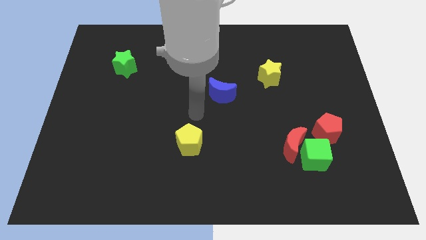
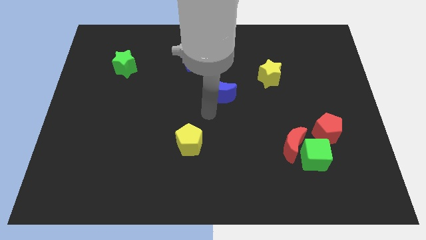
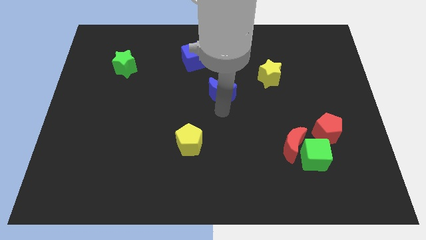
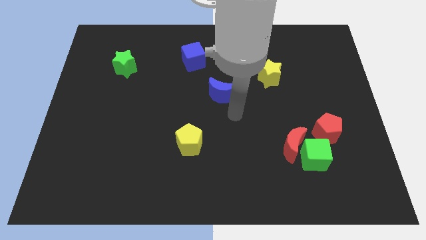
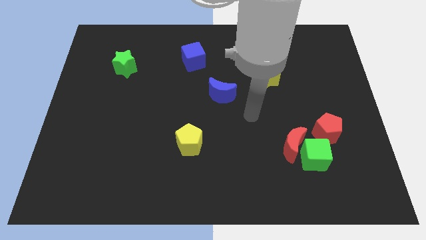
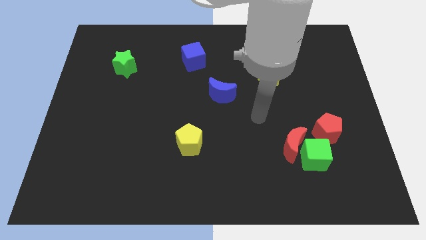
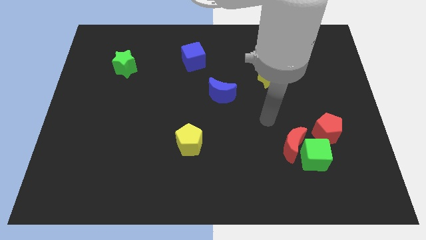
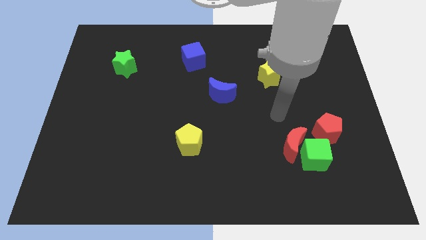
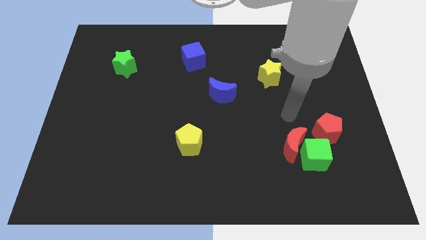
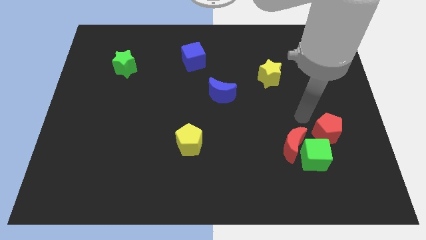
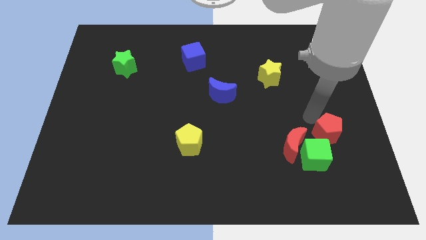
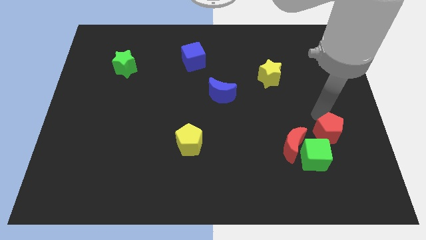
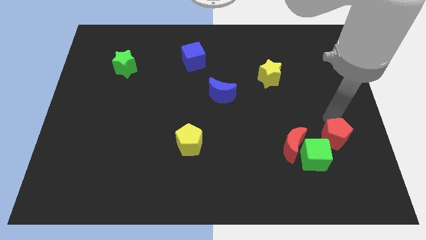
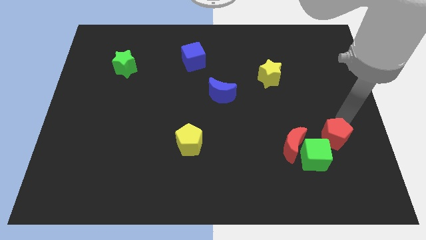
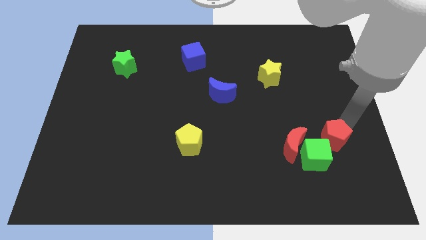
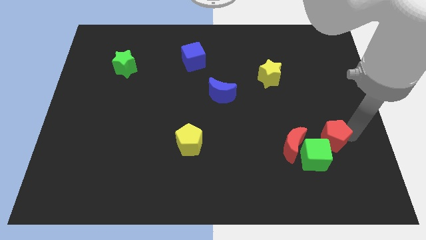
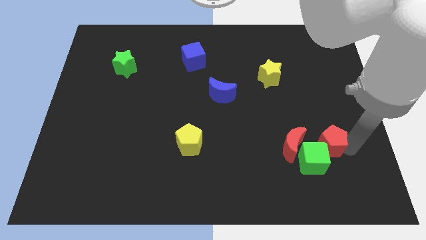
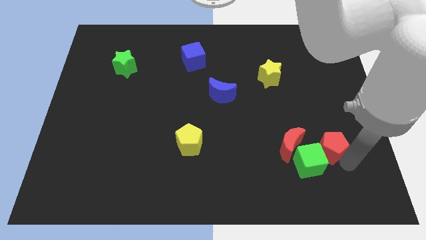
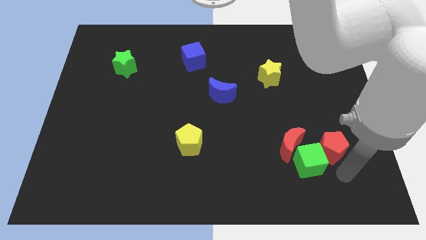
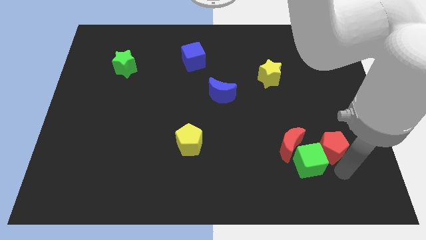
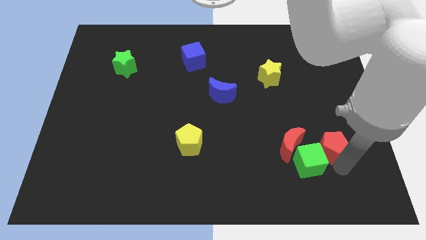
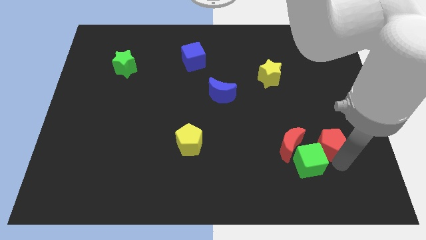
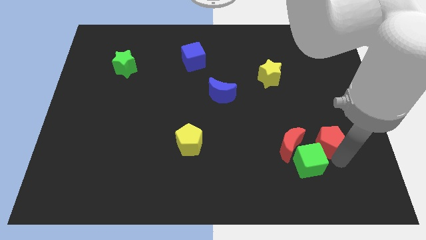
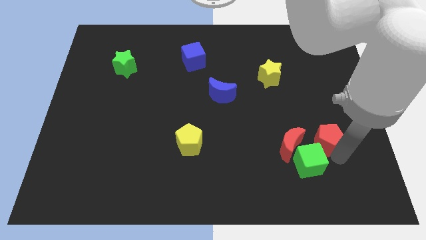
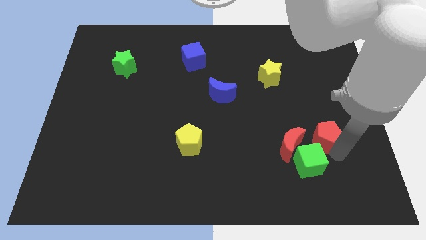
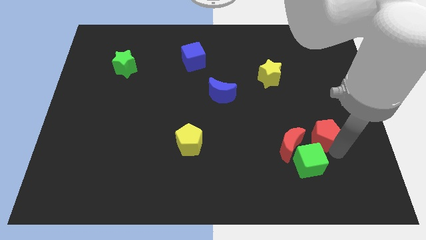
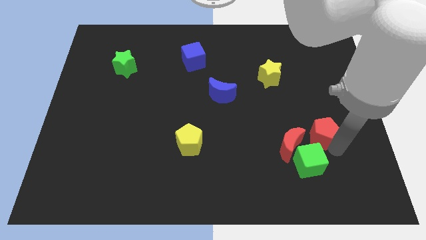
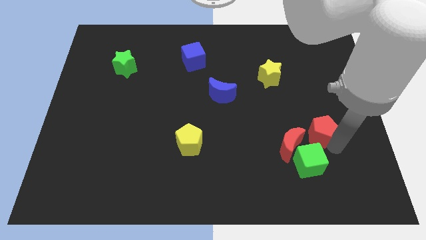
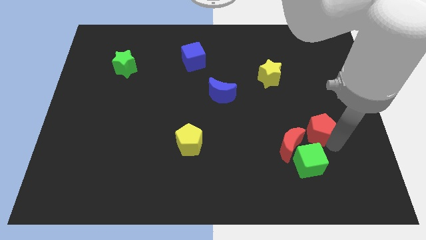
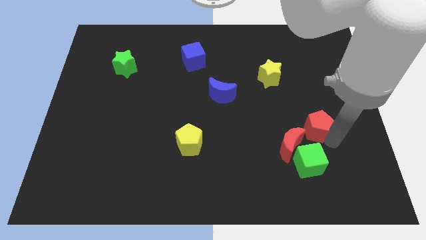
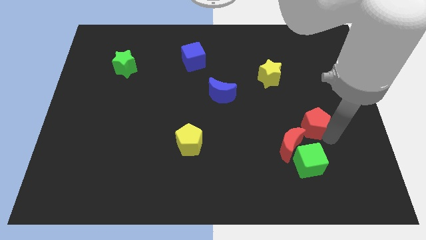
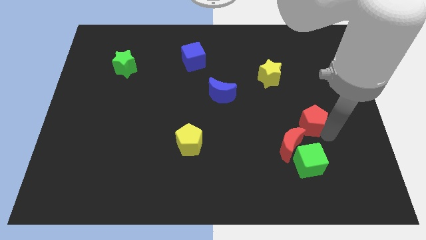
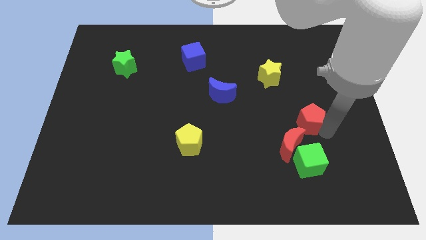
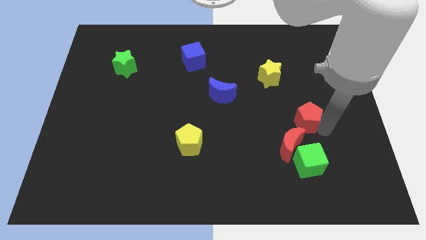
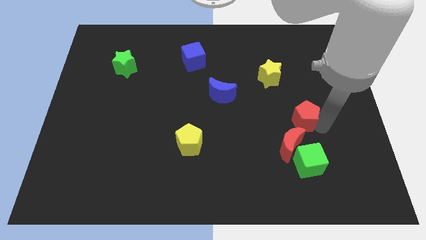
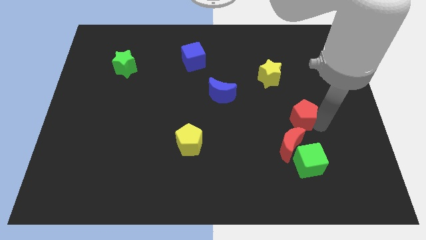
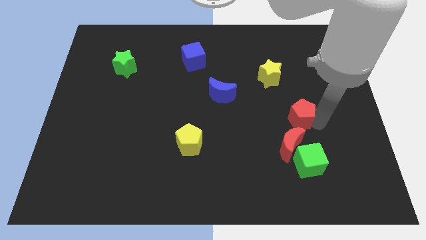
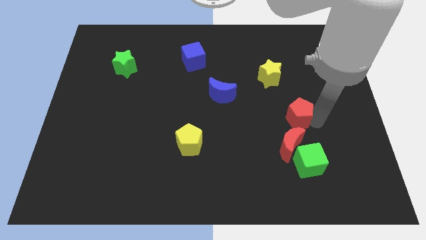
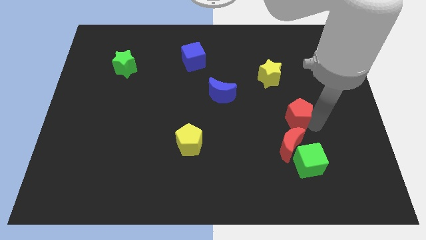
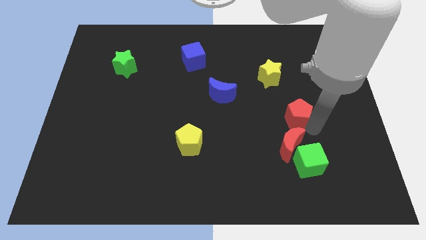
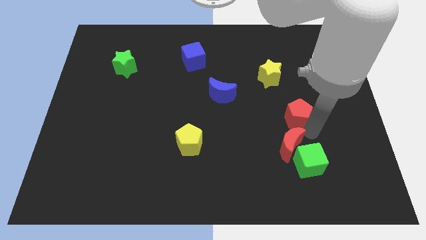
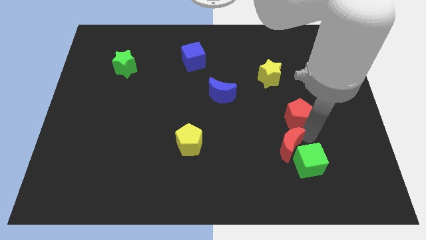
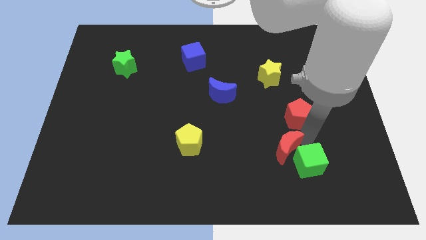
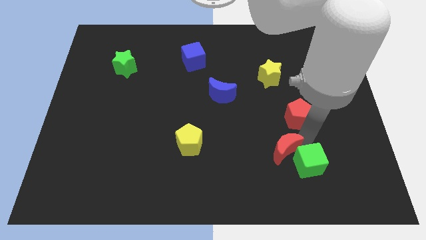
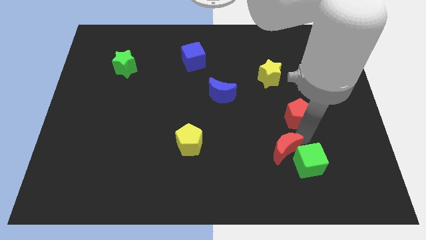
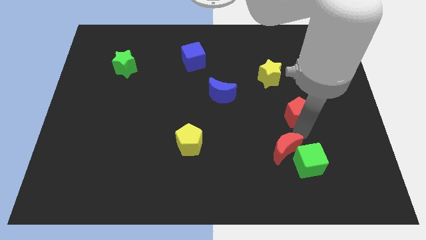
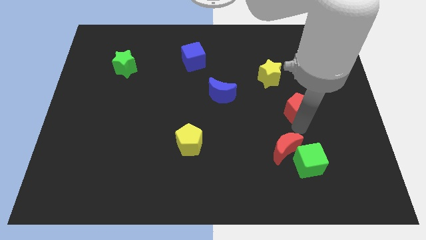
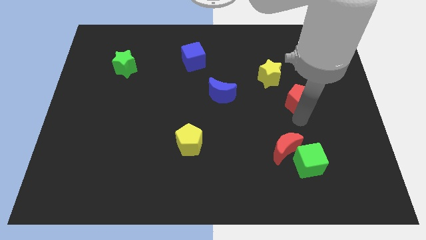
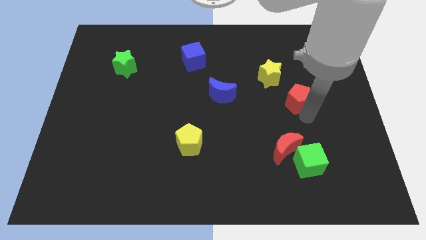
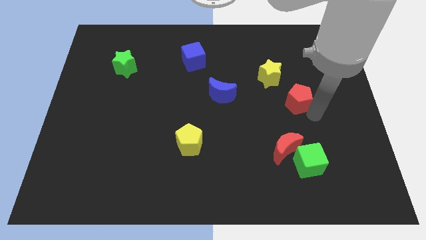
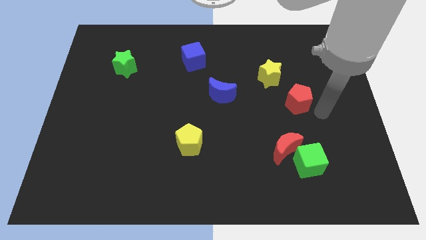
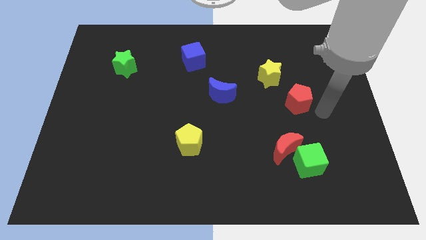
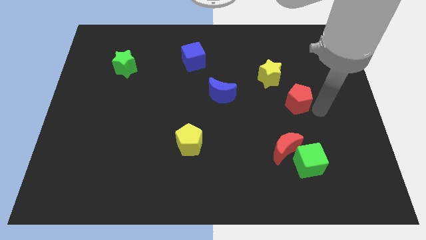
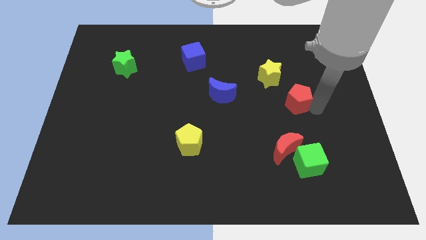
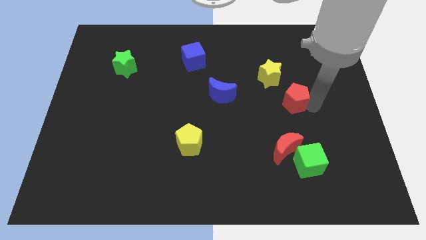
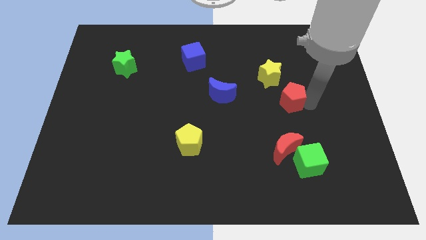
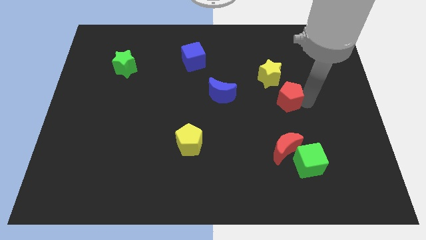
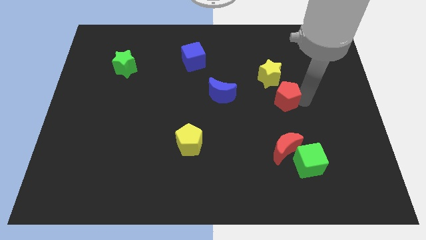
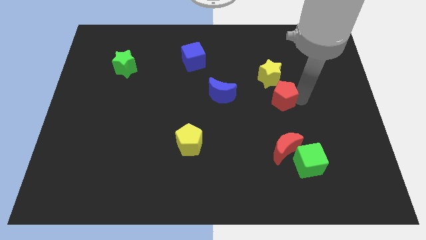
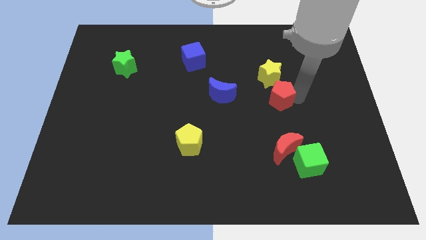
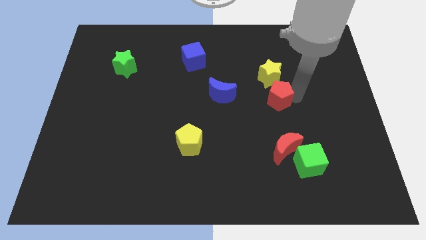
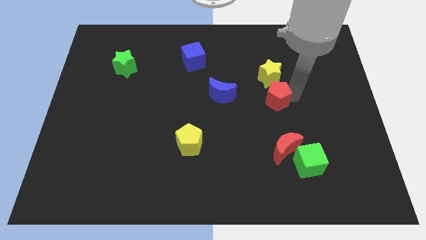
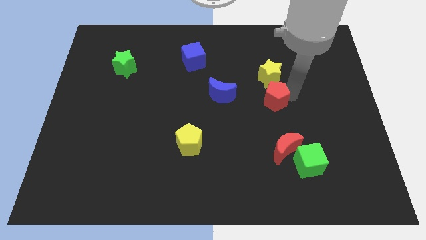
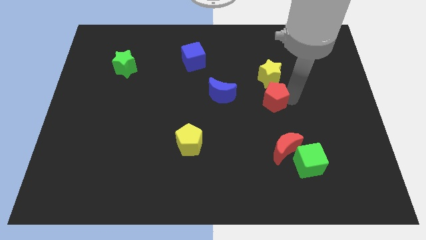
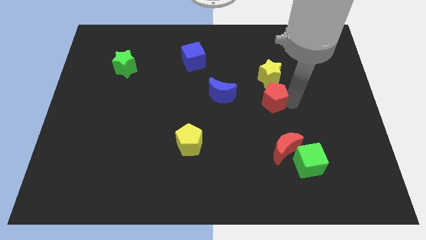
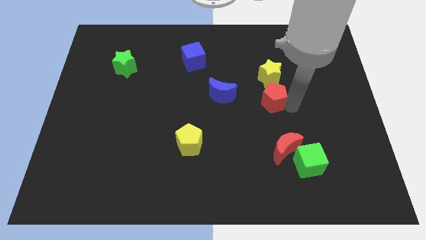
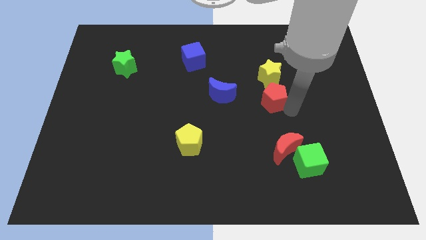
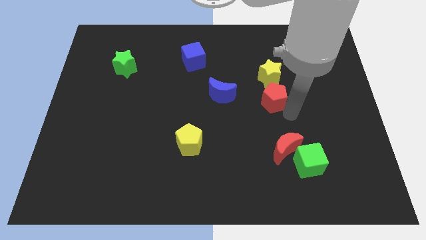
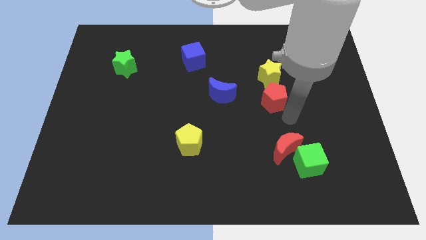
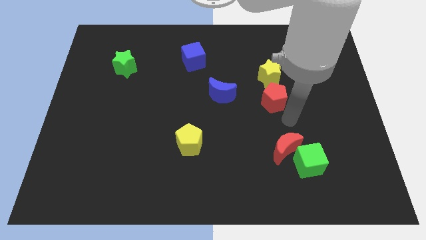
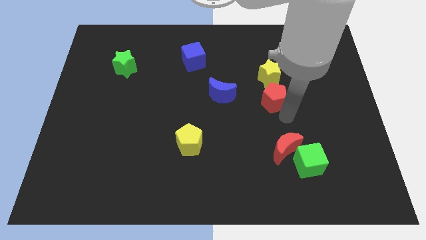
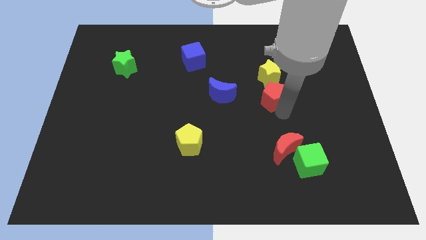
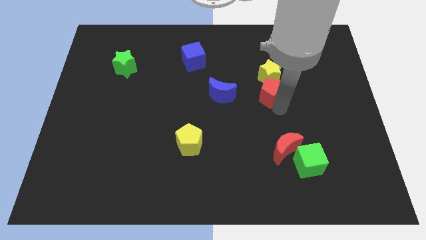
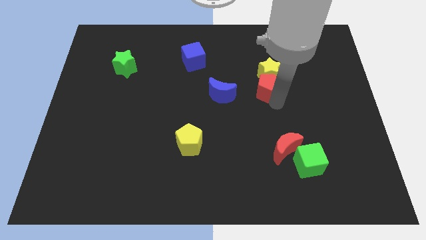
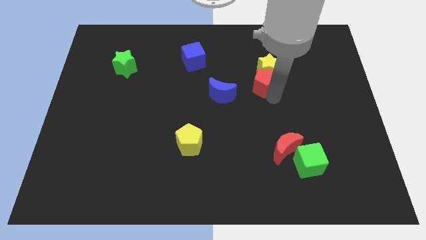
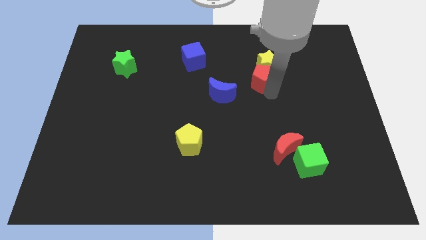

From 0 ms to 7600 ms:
slide the red pentagon upwards and then left

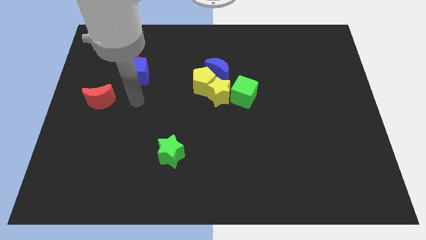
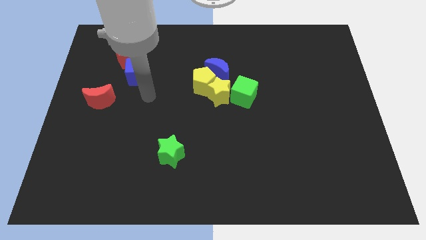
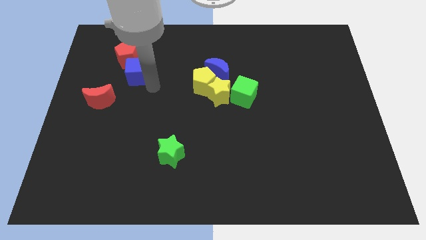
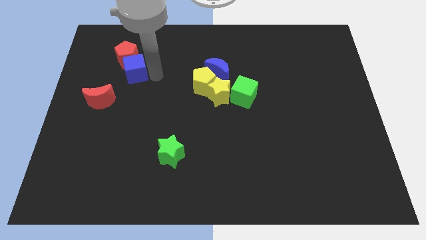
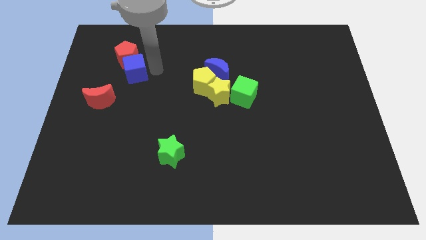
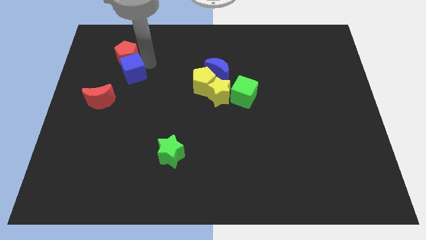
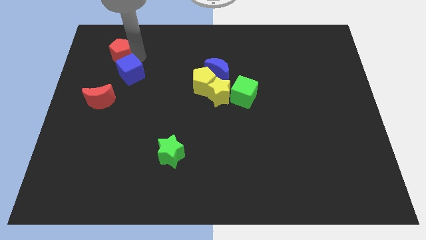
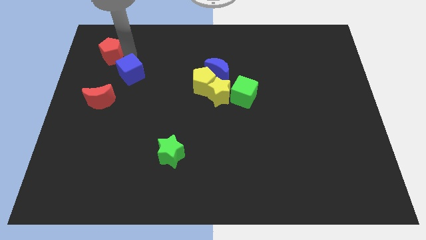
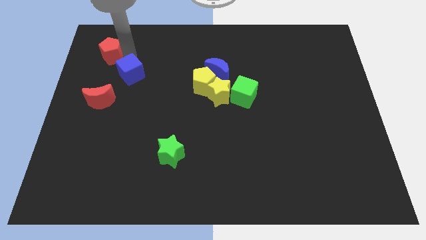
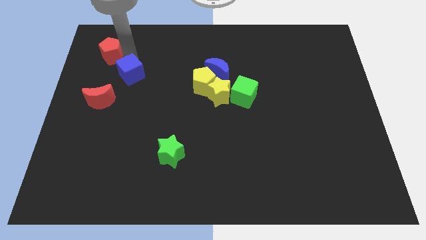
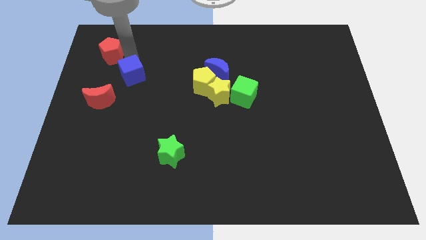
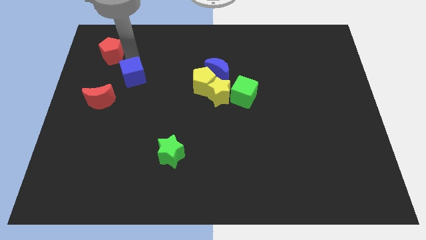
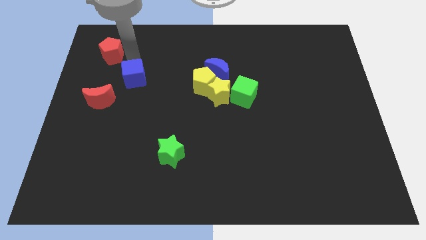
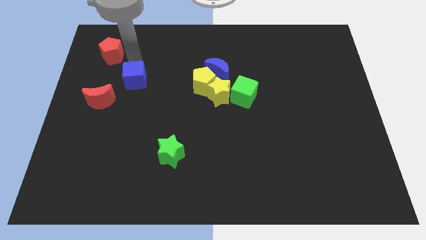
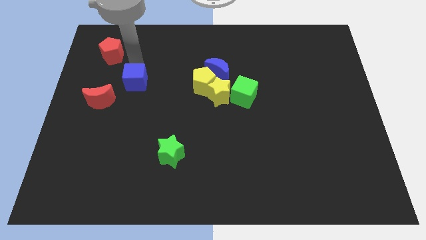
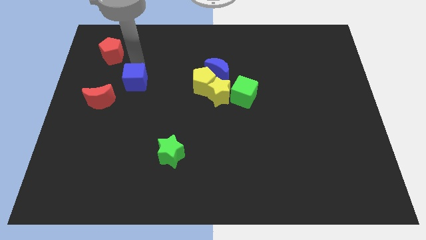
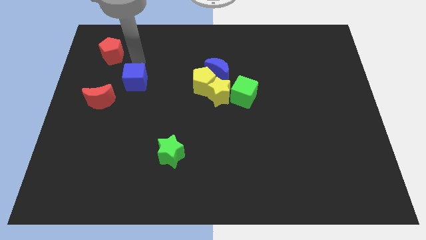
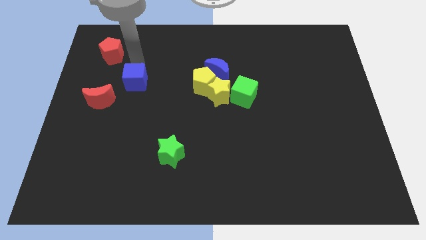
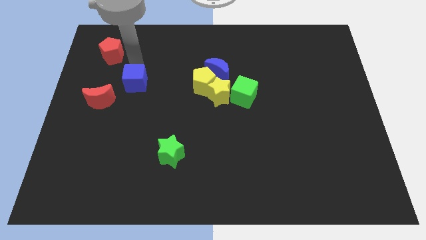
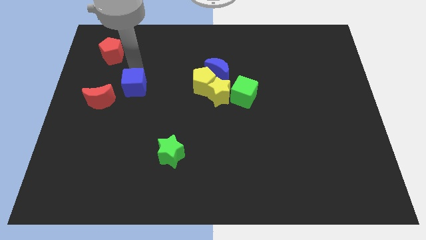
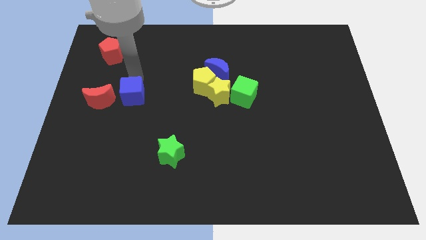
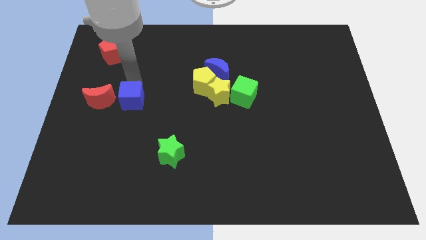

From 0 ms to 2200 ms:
slide the blue cube down somewhat
